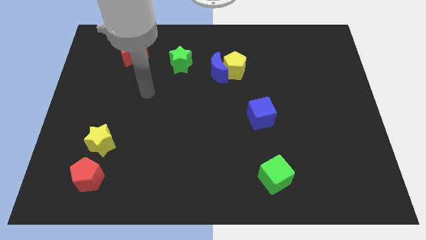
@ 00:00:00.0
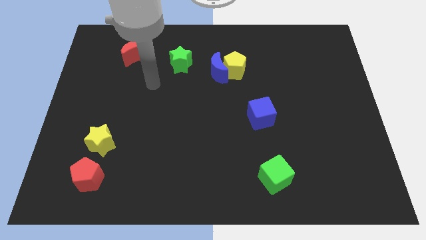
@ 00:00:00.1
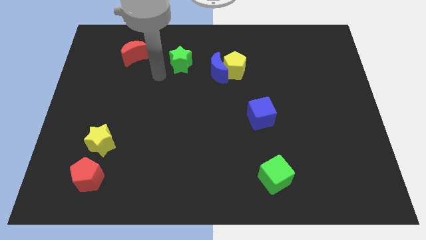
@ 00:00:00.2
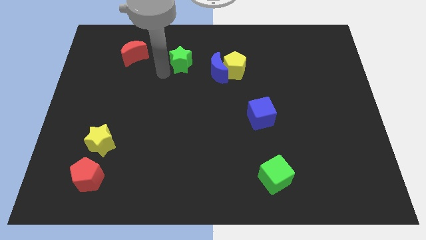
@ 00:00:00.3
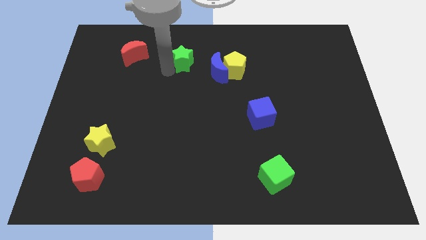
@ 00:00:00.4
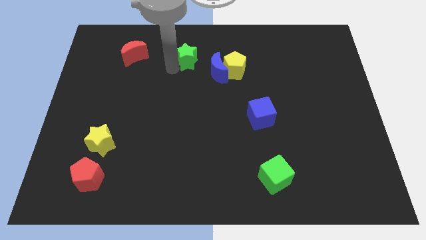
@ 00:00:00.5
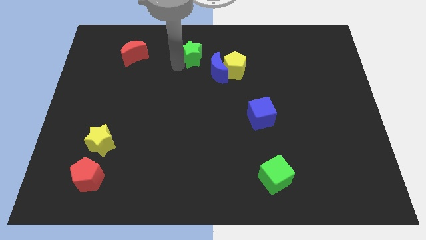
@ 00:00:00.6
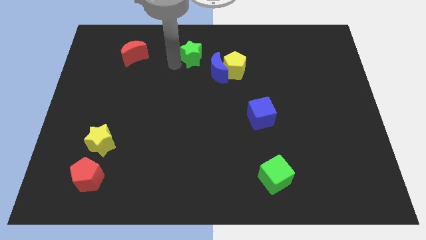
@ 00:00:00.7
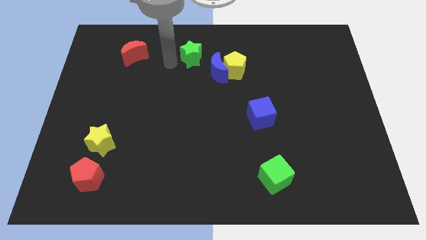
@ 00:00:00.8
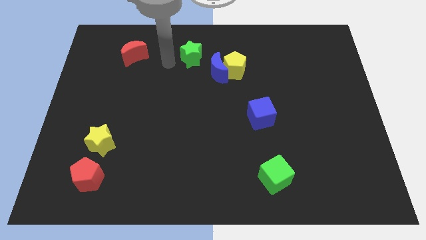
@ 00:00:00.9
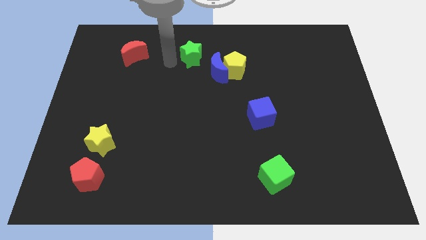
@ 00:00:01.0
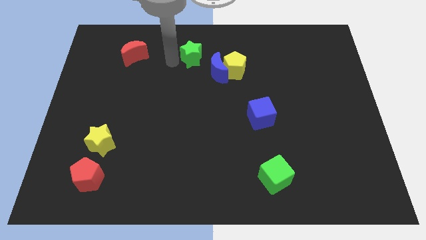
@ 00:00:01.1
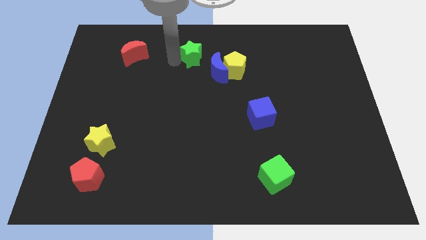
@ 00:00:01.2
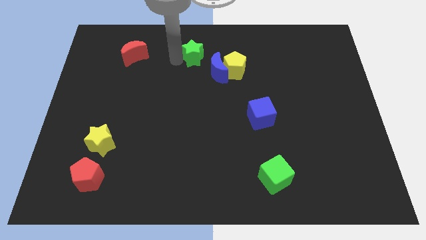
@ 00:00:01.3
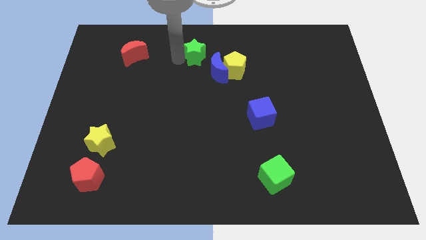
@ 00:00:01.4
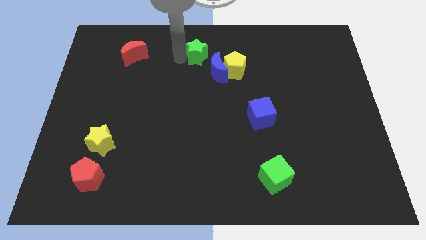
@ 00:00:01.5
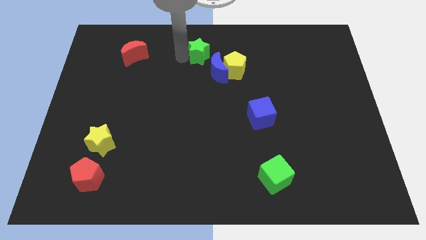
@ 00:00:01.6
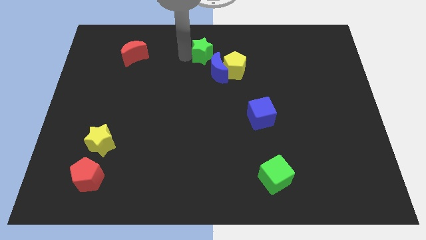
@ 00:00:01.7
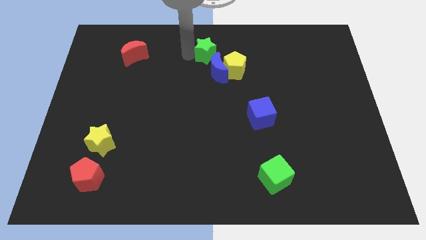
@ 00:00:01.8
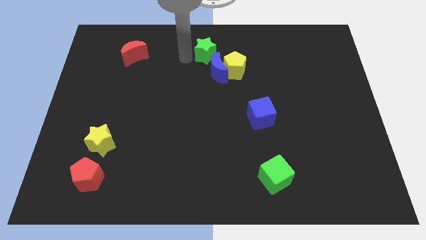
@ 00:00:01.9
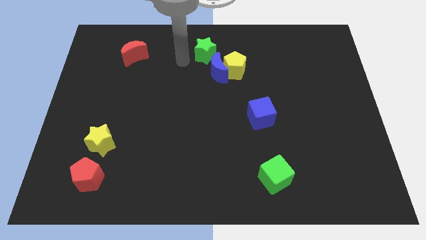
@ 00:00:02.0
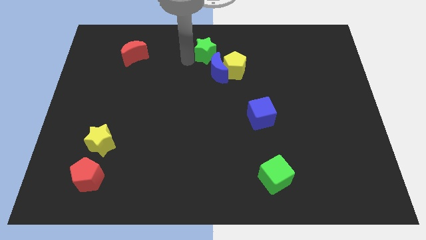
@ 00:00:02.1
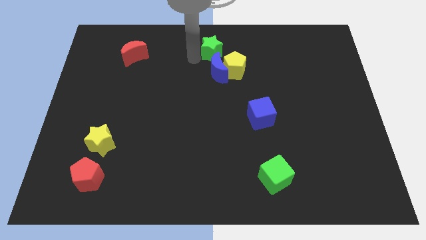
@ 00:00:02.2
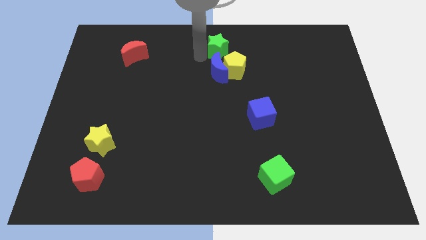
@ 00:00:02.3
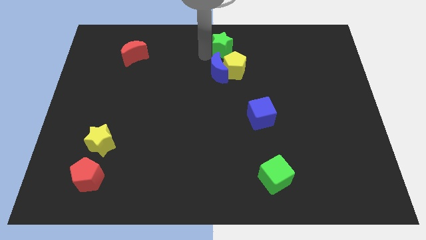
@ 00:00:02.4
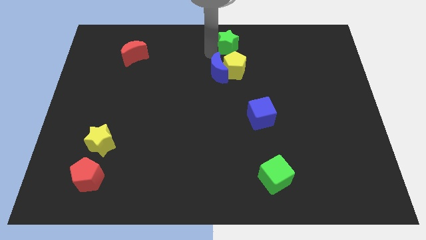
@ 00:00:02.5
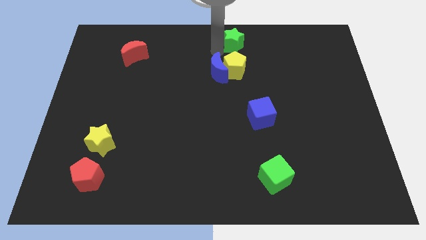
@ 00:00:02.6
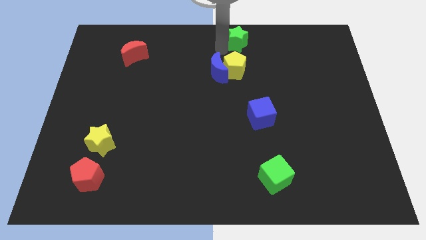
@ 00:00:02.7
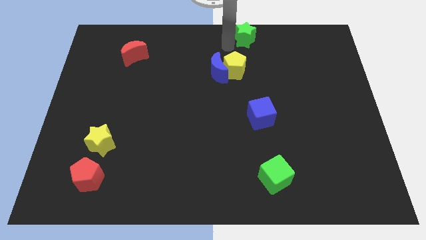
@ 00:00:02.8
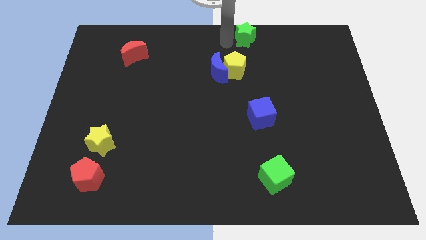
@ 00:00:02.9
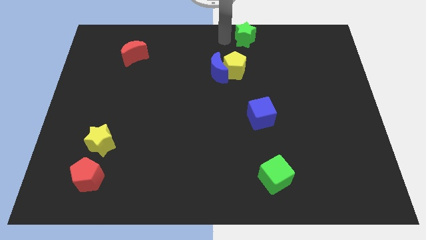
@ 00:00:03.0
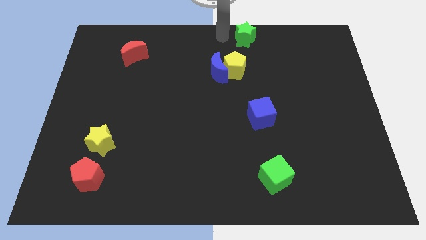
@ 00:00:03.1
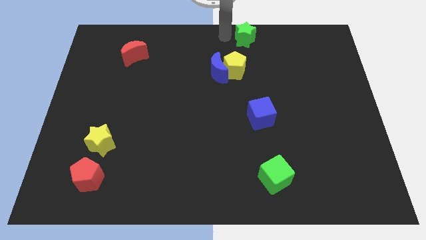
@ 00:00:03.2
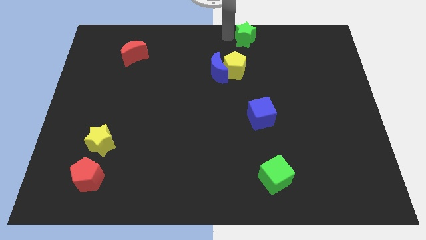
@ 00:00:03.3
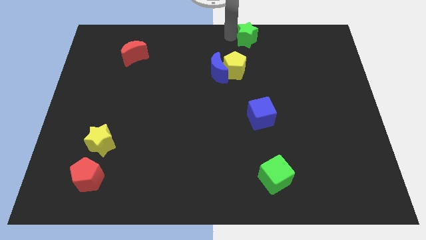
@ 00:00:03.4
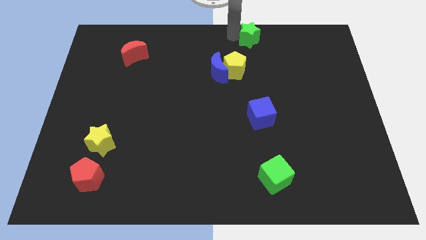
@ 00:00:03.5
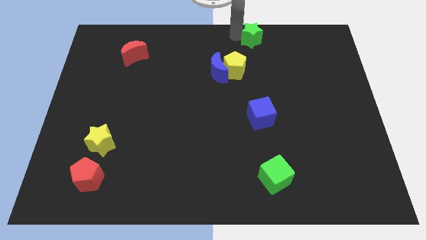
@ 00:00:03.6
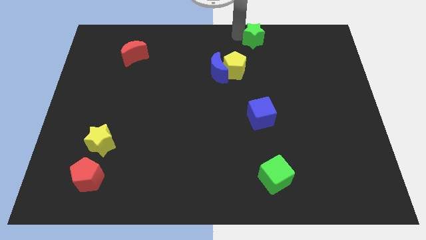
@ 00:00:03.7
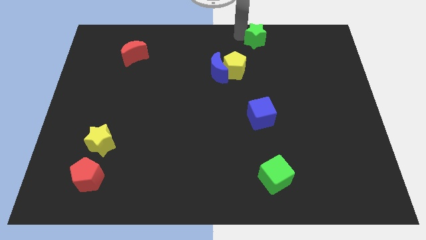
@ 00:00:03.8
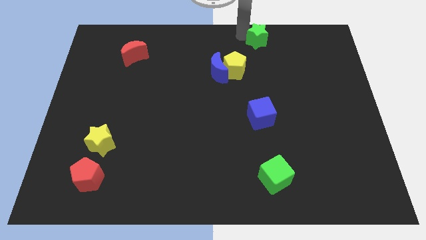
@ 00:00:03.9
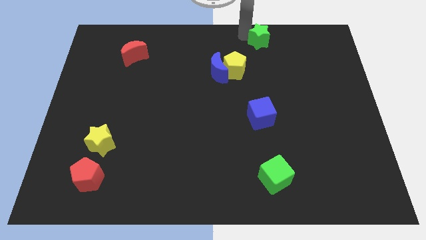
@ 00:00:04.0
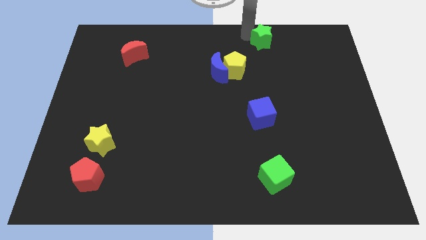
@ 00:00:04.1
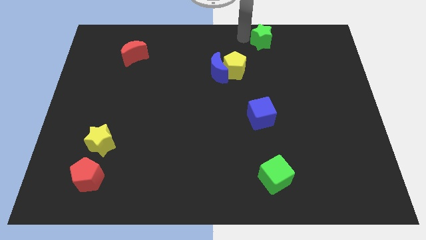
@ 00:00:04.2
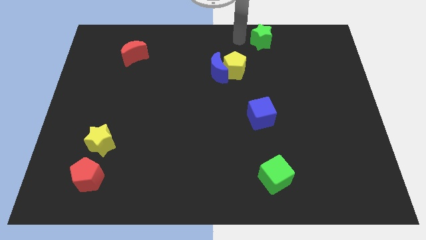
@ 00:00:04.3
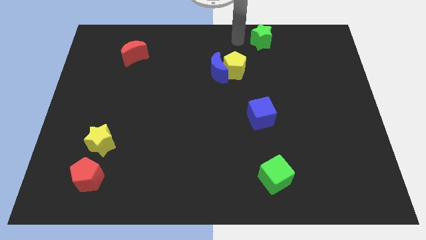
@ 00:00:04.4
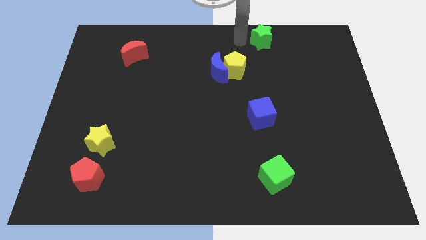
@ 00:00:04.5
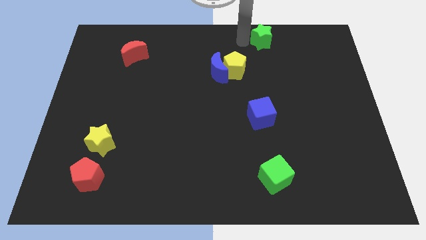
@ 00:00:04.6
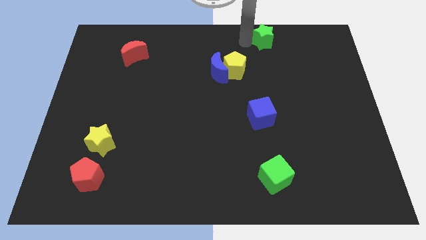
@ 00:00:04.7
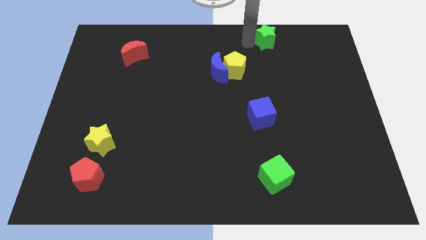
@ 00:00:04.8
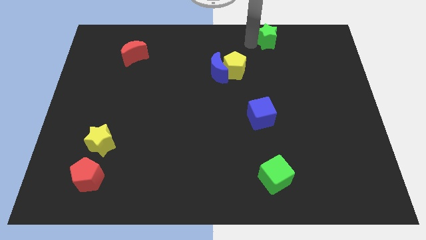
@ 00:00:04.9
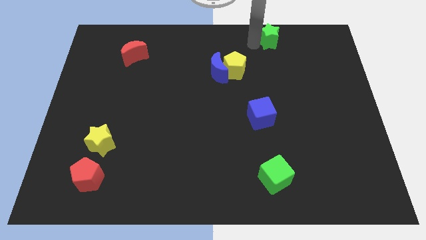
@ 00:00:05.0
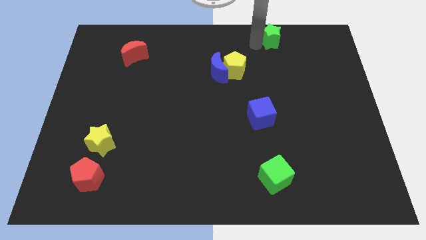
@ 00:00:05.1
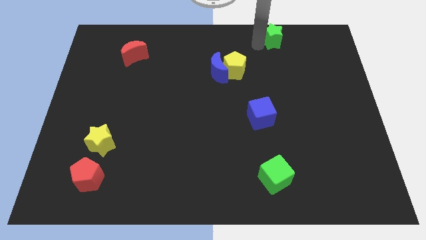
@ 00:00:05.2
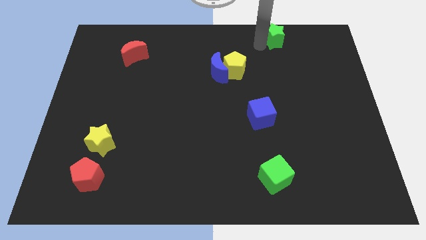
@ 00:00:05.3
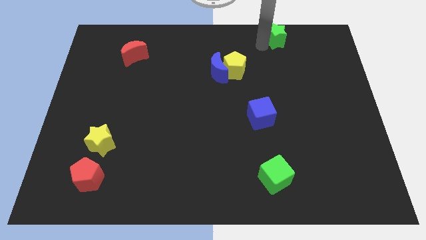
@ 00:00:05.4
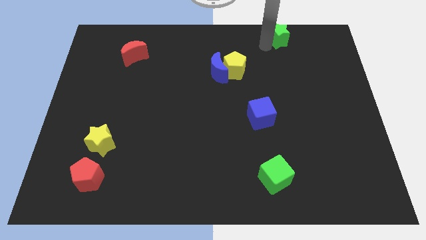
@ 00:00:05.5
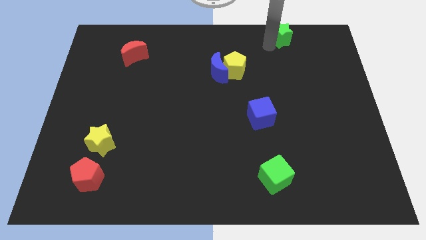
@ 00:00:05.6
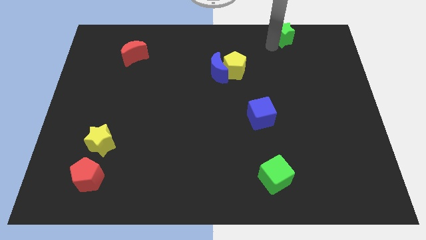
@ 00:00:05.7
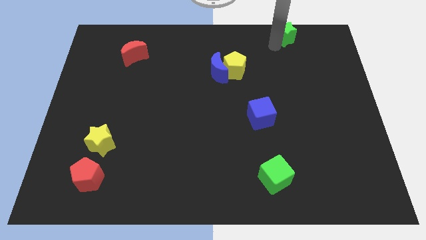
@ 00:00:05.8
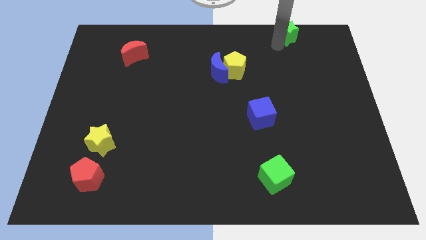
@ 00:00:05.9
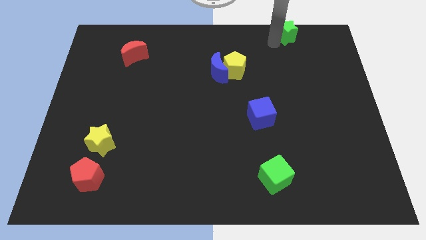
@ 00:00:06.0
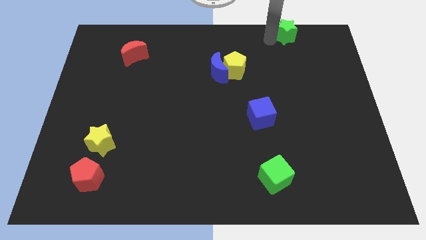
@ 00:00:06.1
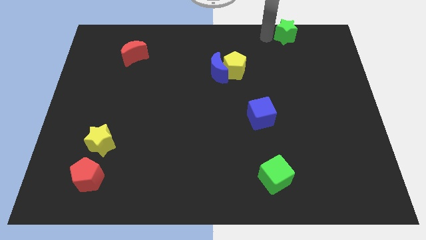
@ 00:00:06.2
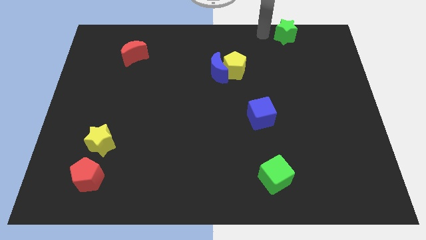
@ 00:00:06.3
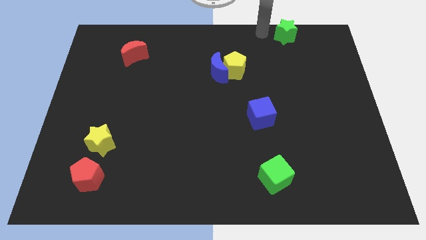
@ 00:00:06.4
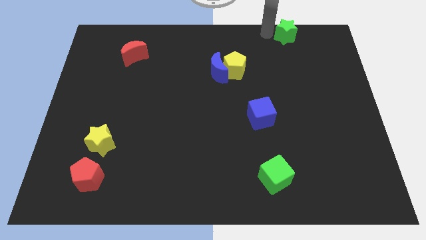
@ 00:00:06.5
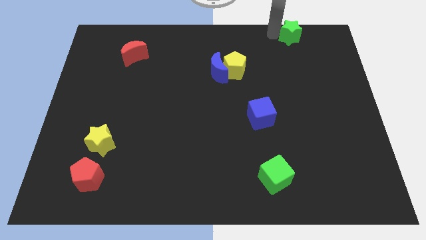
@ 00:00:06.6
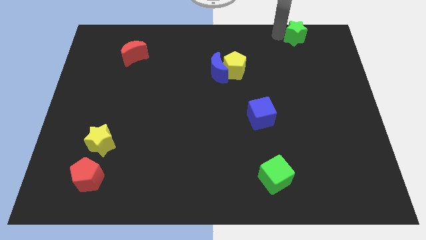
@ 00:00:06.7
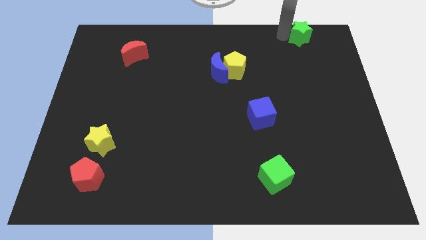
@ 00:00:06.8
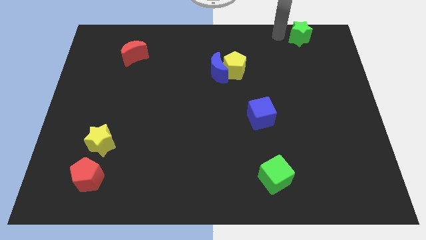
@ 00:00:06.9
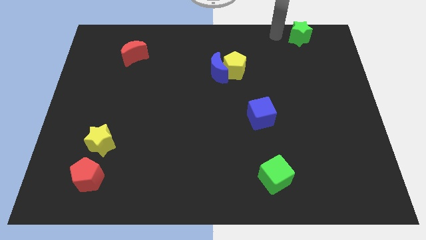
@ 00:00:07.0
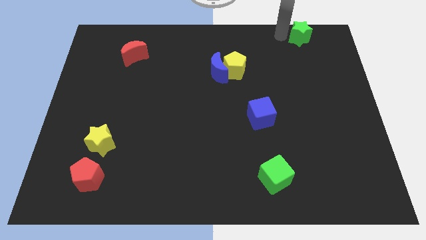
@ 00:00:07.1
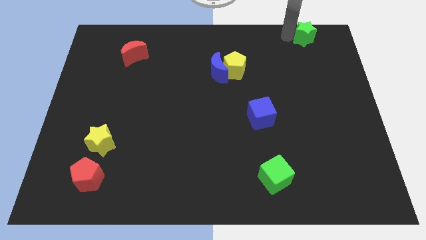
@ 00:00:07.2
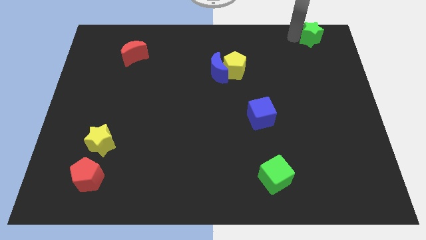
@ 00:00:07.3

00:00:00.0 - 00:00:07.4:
push the green star to the top right
